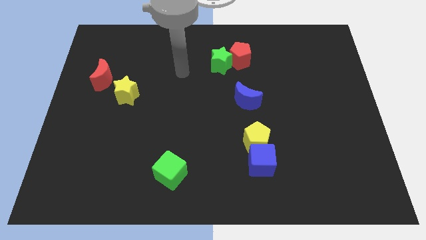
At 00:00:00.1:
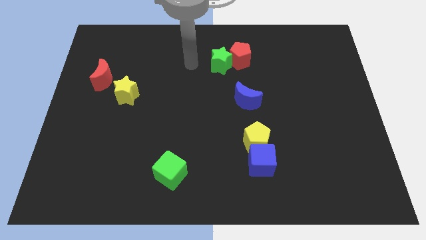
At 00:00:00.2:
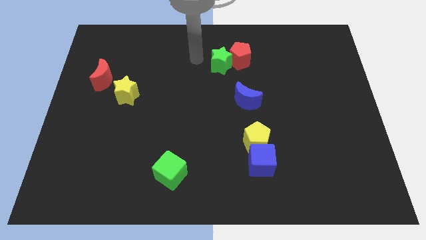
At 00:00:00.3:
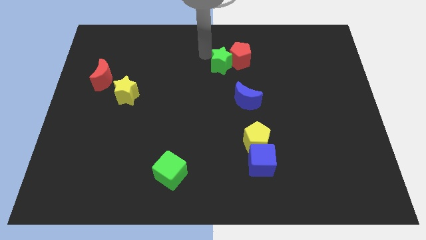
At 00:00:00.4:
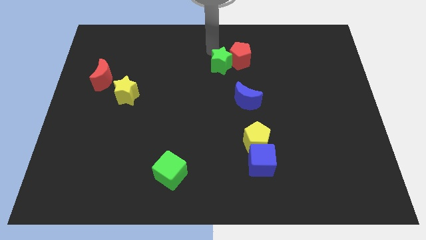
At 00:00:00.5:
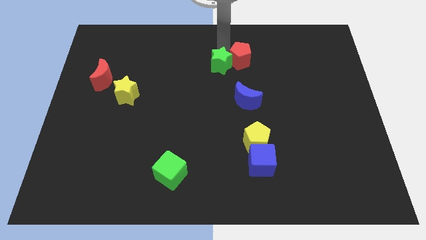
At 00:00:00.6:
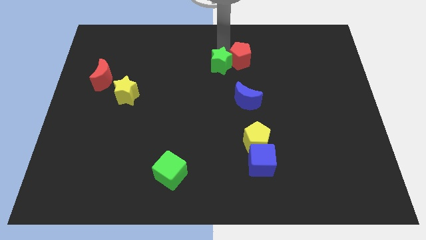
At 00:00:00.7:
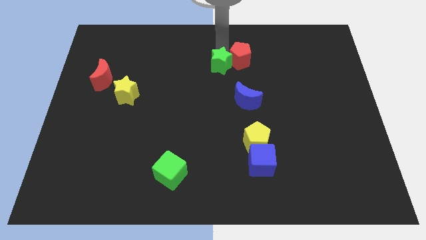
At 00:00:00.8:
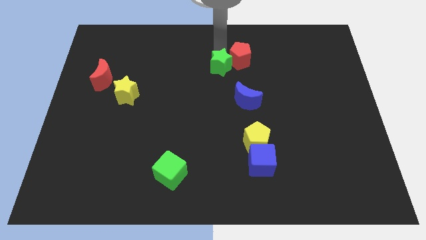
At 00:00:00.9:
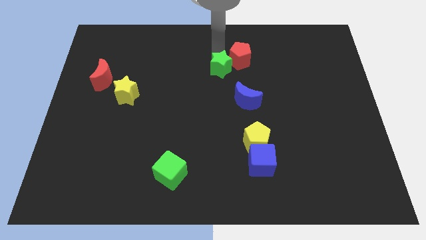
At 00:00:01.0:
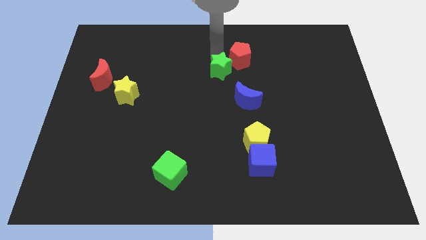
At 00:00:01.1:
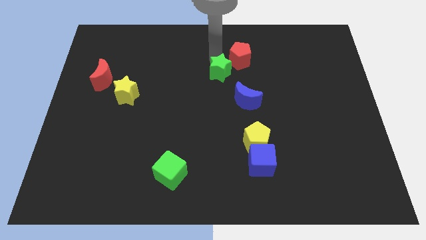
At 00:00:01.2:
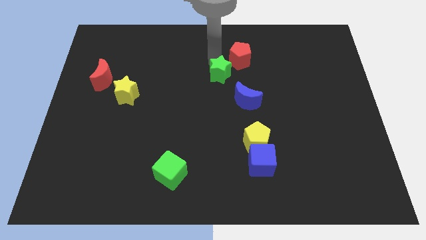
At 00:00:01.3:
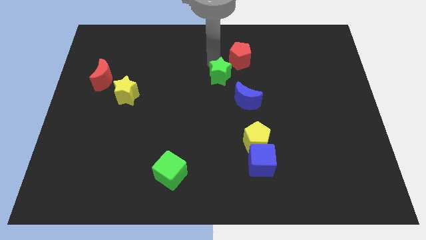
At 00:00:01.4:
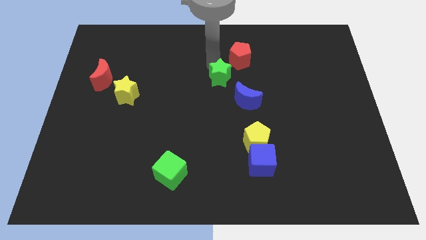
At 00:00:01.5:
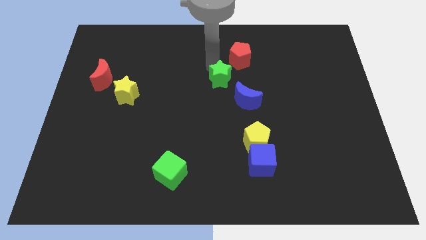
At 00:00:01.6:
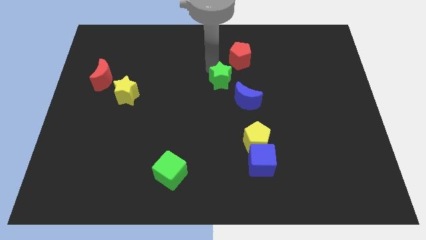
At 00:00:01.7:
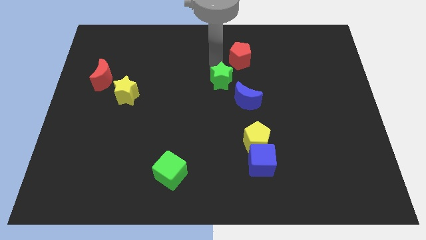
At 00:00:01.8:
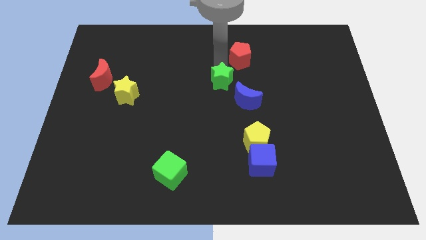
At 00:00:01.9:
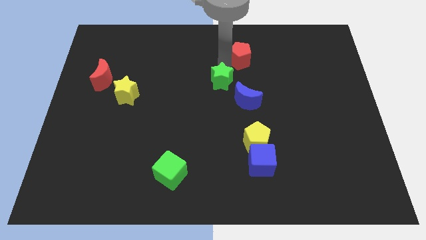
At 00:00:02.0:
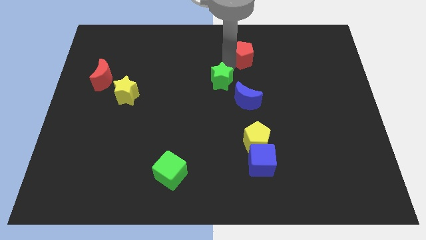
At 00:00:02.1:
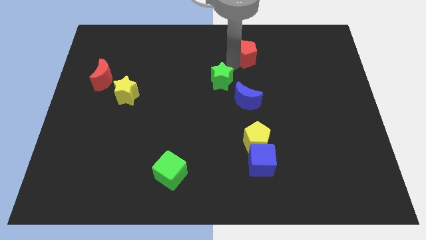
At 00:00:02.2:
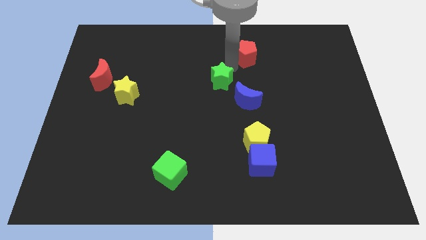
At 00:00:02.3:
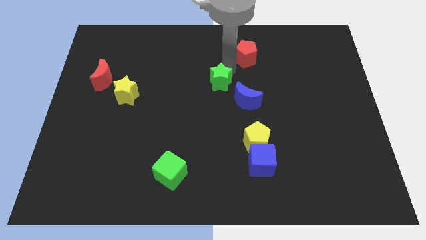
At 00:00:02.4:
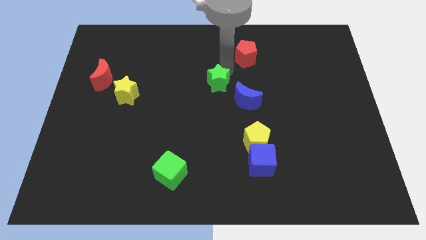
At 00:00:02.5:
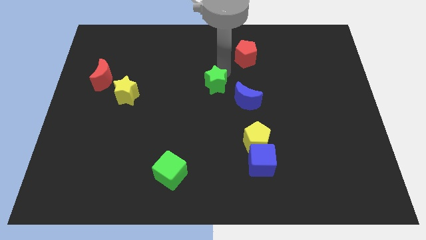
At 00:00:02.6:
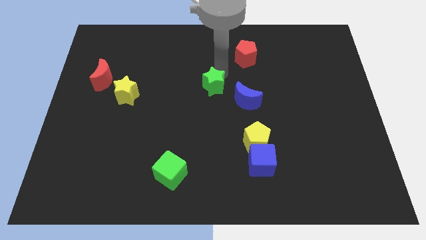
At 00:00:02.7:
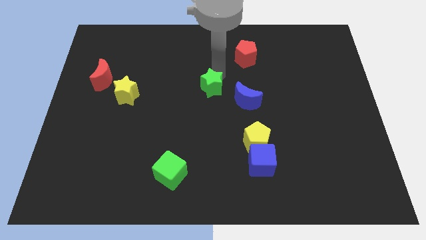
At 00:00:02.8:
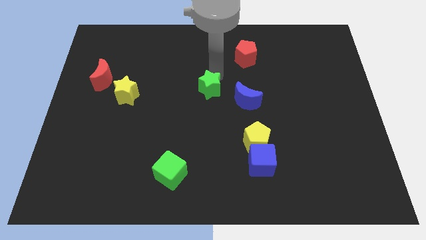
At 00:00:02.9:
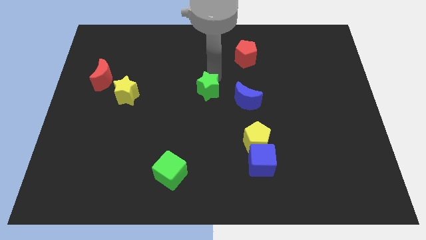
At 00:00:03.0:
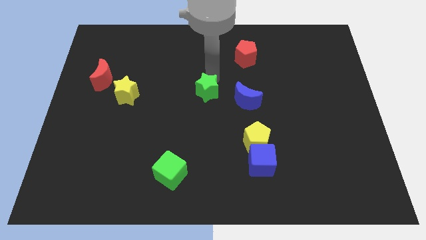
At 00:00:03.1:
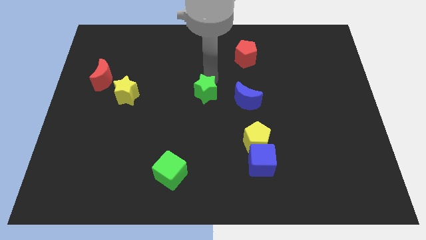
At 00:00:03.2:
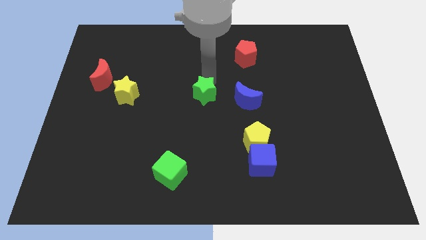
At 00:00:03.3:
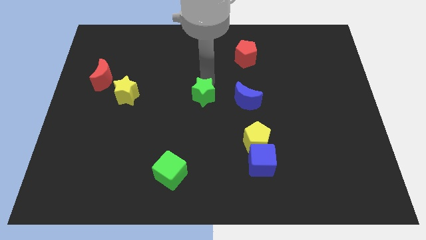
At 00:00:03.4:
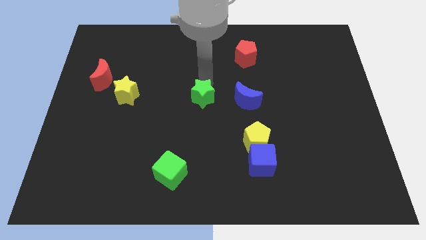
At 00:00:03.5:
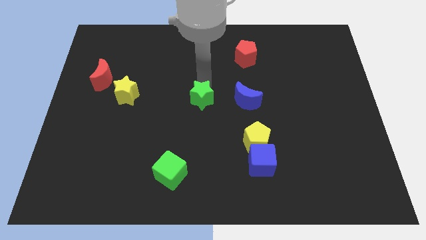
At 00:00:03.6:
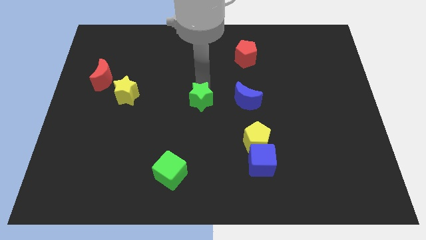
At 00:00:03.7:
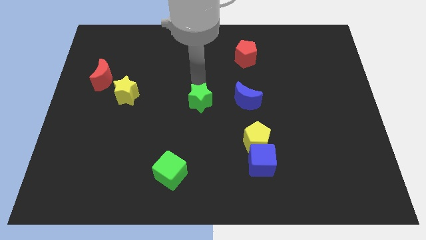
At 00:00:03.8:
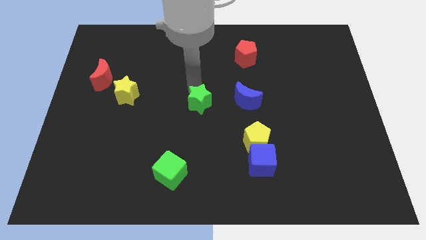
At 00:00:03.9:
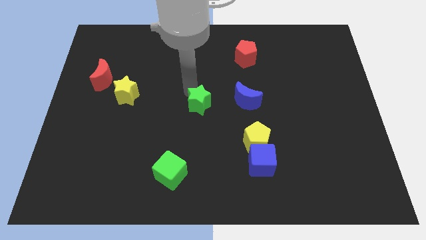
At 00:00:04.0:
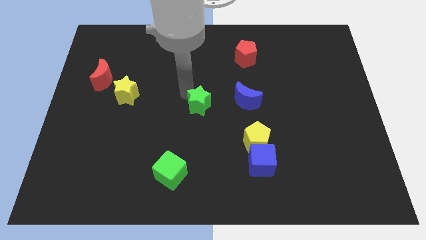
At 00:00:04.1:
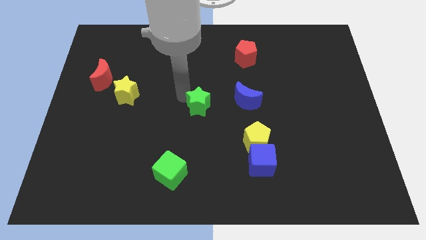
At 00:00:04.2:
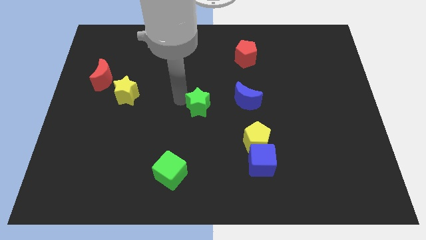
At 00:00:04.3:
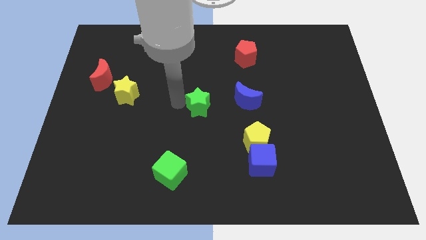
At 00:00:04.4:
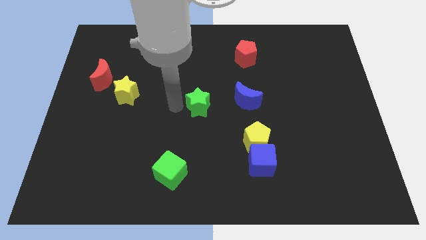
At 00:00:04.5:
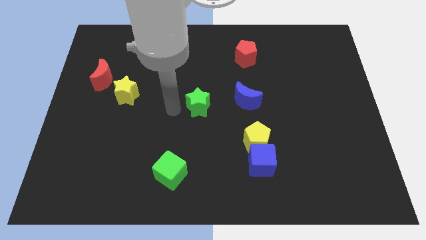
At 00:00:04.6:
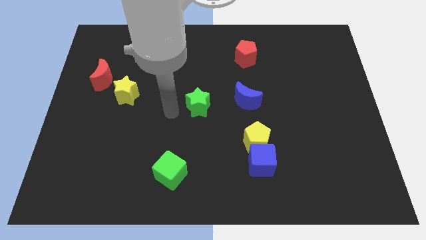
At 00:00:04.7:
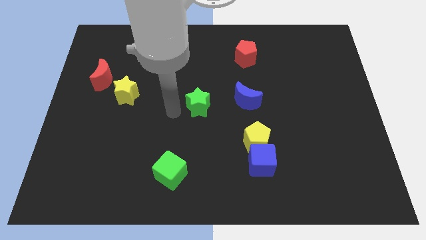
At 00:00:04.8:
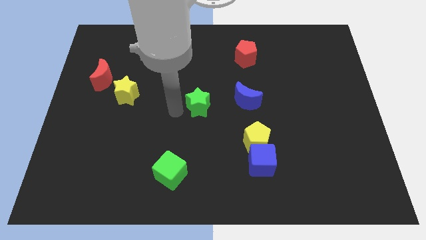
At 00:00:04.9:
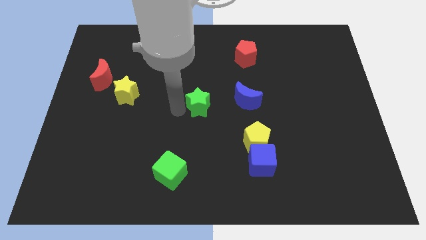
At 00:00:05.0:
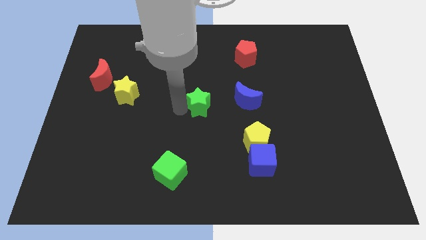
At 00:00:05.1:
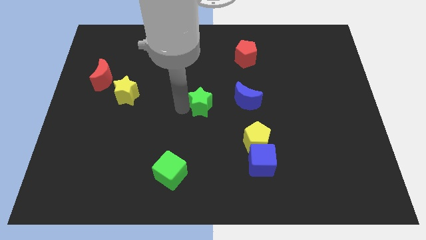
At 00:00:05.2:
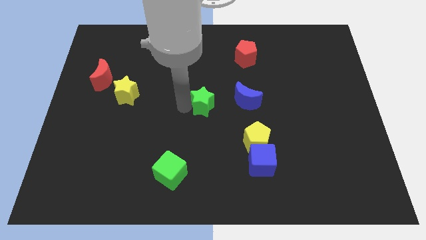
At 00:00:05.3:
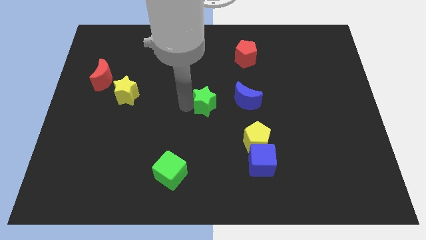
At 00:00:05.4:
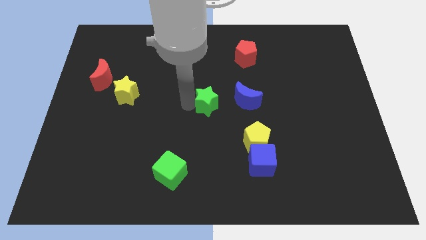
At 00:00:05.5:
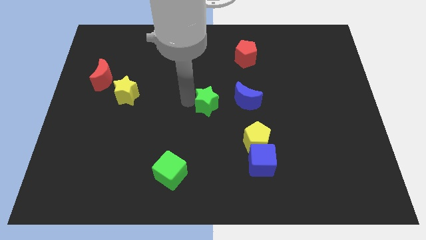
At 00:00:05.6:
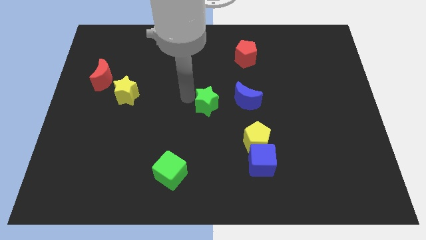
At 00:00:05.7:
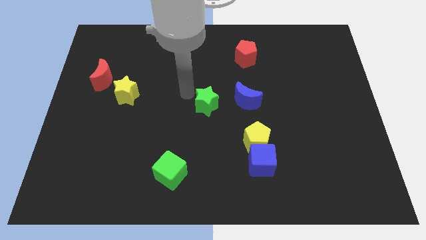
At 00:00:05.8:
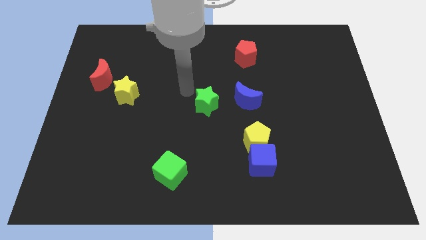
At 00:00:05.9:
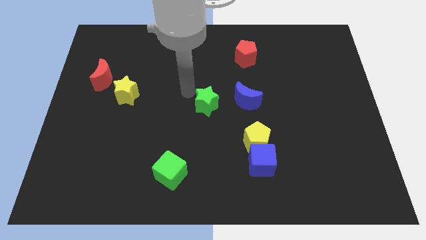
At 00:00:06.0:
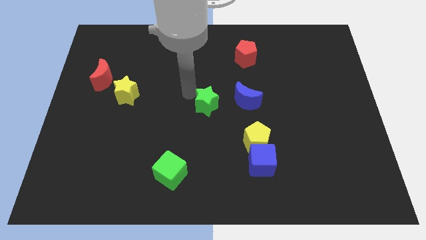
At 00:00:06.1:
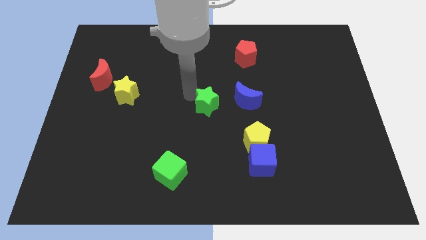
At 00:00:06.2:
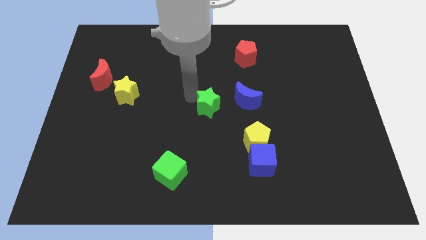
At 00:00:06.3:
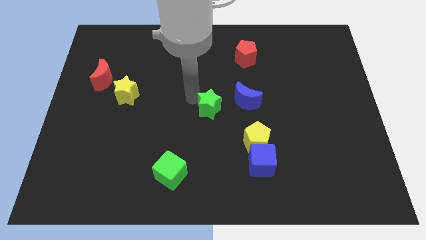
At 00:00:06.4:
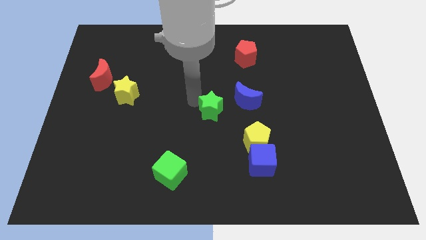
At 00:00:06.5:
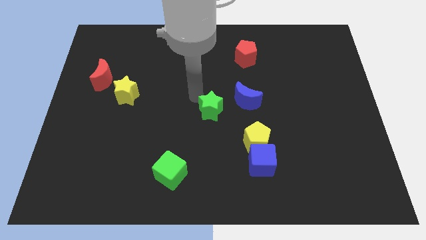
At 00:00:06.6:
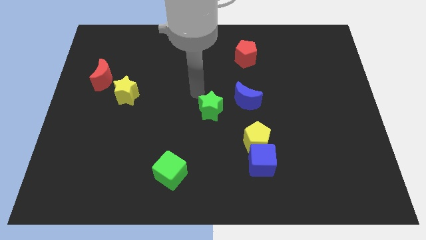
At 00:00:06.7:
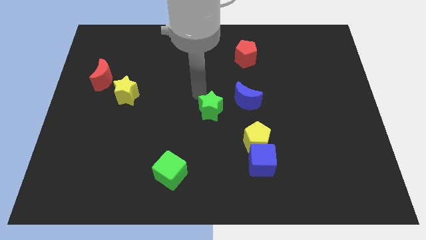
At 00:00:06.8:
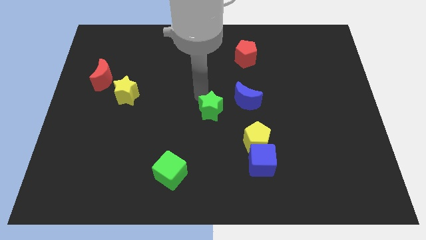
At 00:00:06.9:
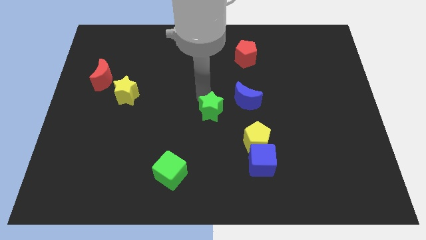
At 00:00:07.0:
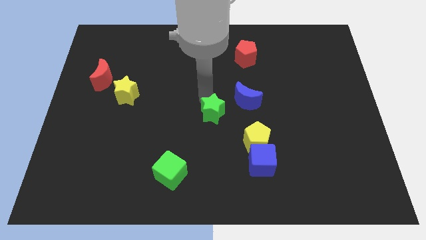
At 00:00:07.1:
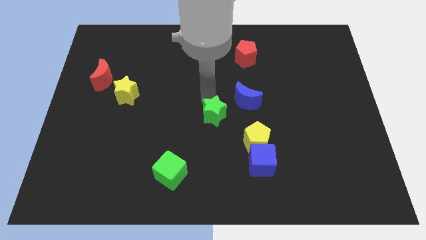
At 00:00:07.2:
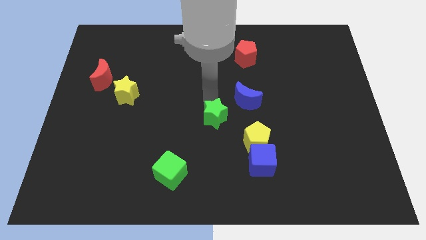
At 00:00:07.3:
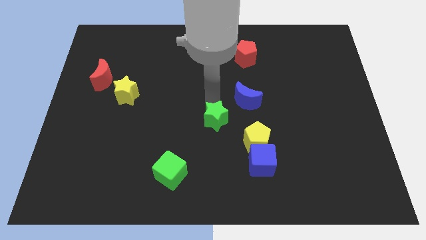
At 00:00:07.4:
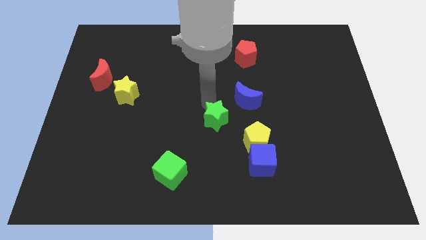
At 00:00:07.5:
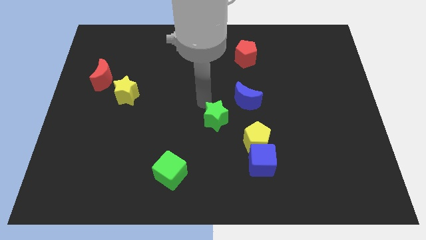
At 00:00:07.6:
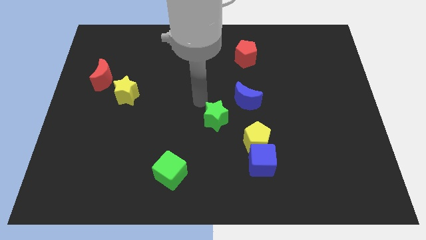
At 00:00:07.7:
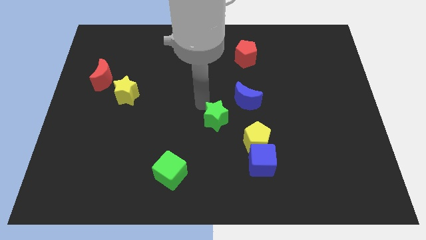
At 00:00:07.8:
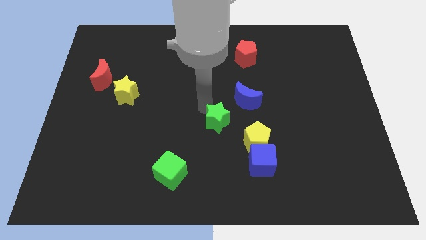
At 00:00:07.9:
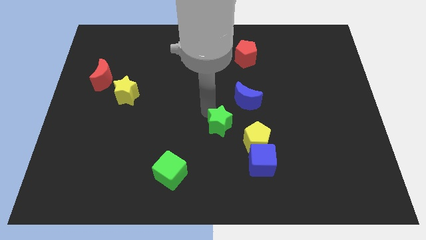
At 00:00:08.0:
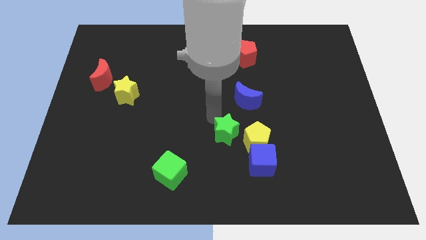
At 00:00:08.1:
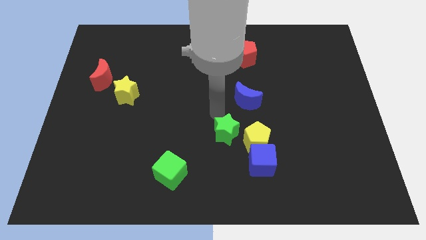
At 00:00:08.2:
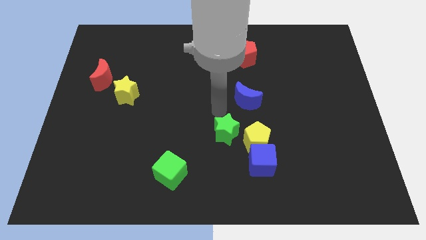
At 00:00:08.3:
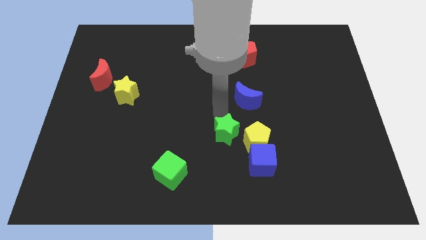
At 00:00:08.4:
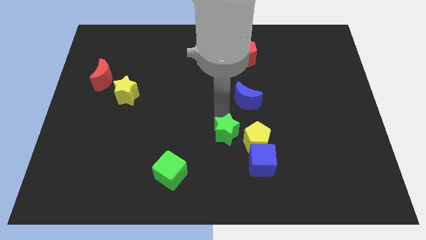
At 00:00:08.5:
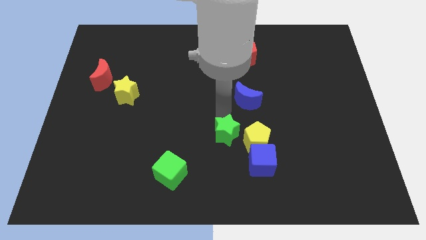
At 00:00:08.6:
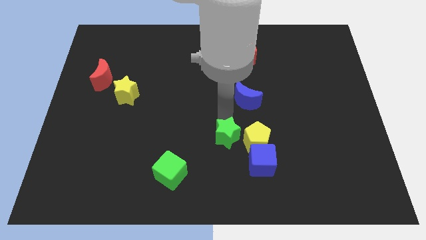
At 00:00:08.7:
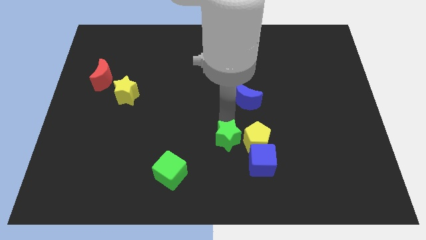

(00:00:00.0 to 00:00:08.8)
move the green star to the bottom left of the yellow pentagon
